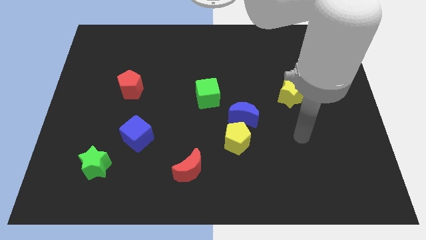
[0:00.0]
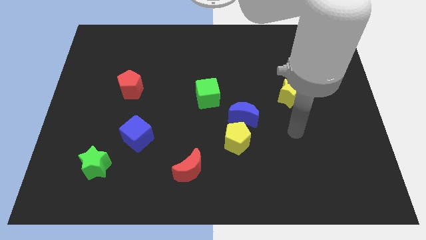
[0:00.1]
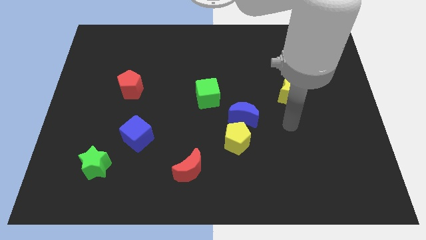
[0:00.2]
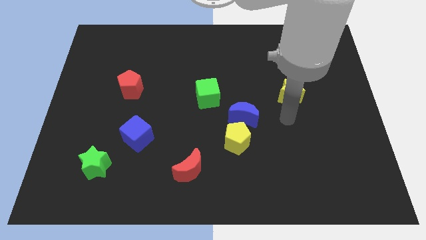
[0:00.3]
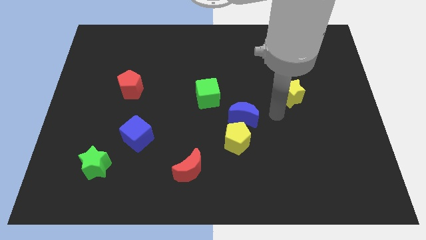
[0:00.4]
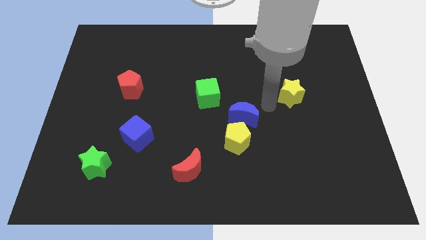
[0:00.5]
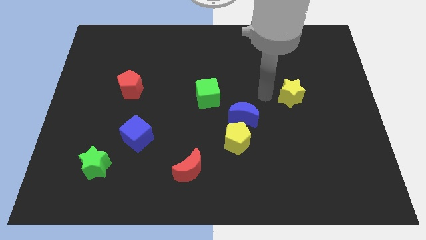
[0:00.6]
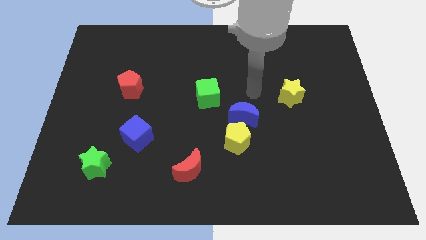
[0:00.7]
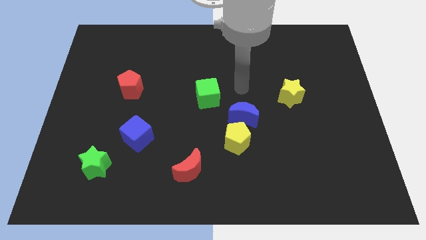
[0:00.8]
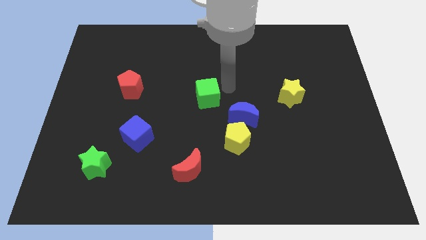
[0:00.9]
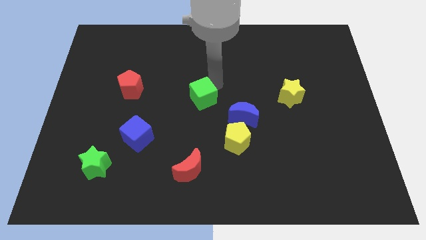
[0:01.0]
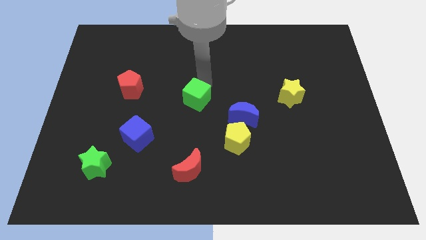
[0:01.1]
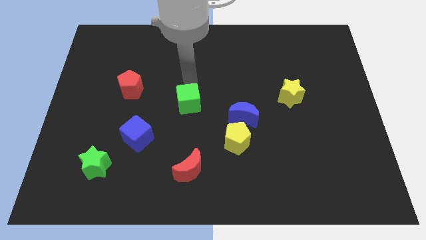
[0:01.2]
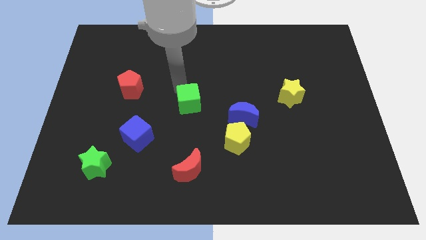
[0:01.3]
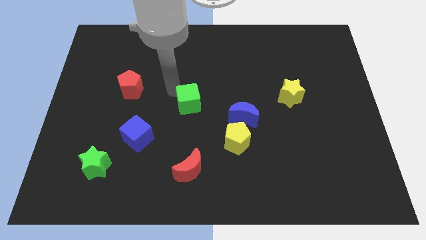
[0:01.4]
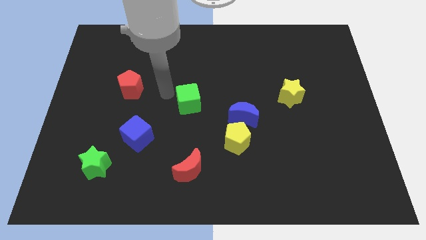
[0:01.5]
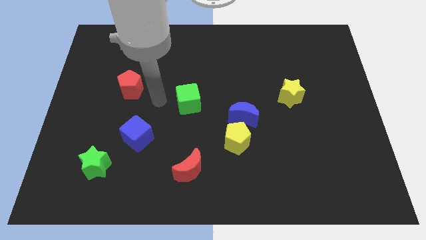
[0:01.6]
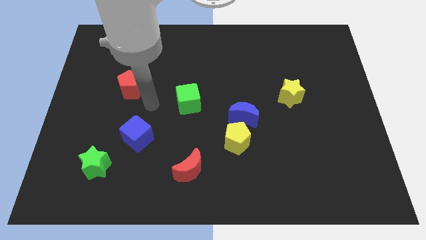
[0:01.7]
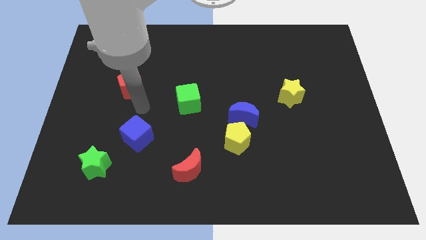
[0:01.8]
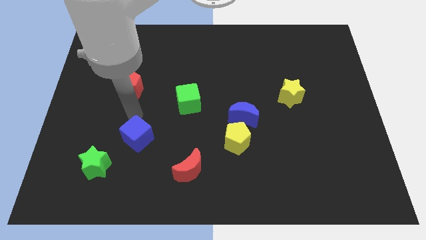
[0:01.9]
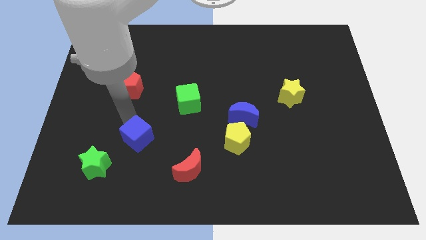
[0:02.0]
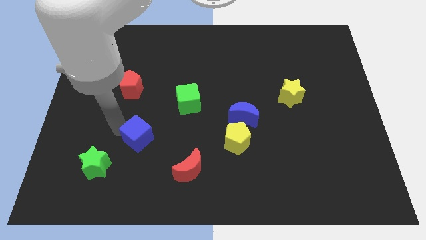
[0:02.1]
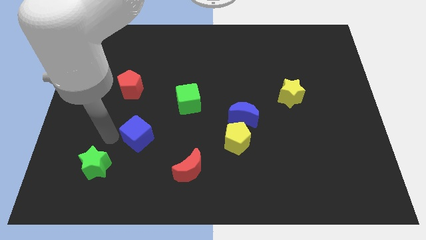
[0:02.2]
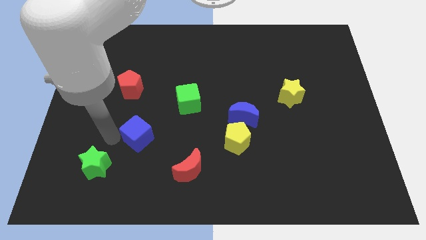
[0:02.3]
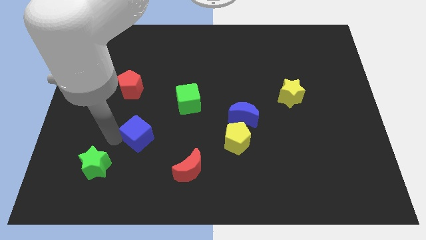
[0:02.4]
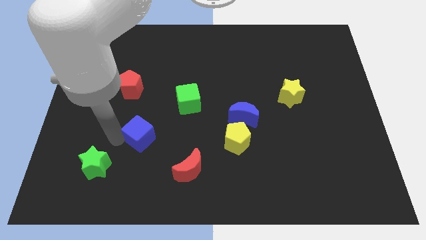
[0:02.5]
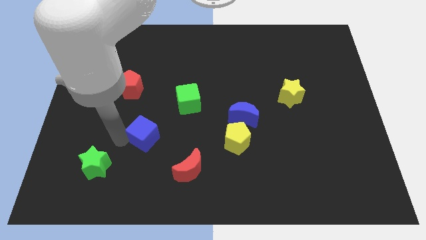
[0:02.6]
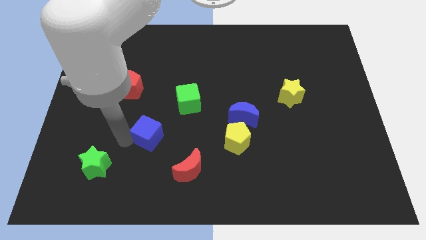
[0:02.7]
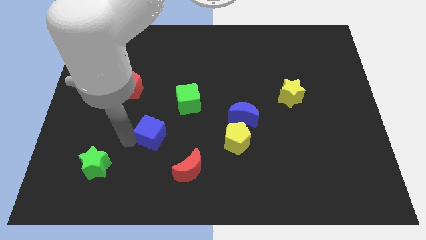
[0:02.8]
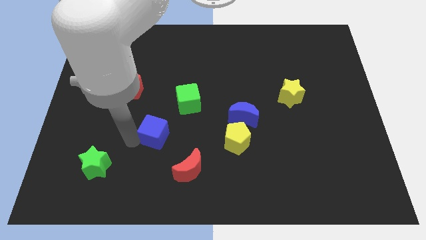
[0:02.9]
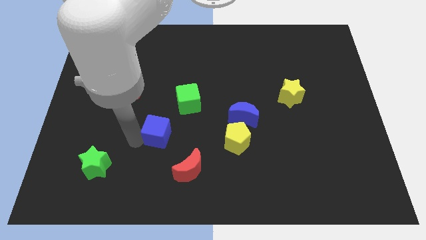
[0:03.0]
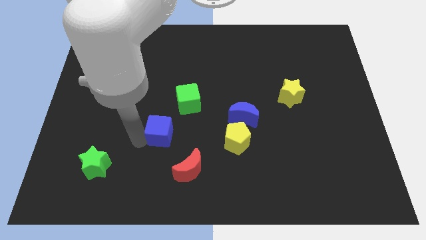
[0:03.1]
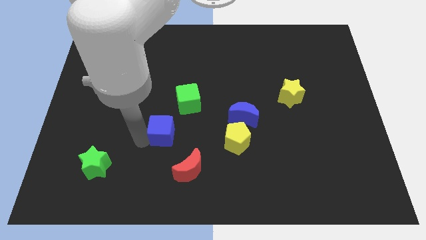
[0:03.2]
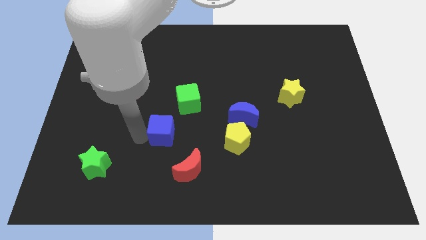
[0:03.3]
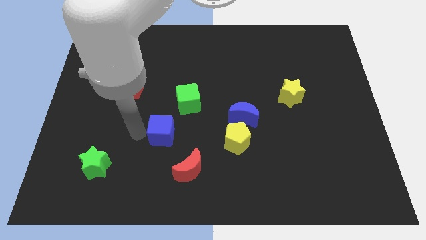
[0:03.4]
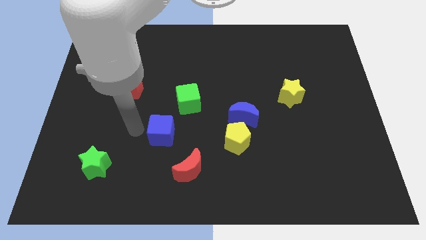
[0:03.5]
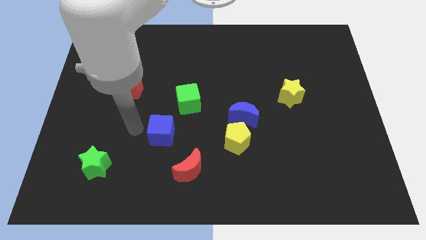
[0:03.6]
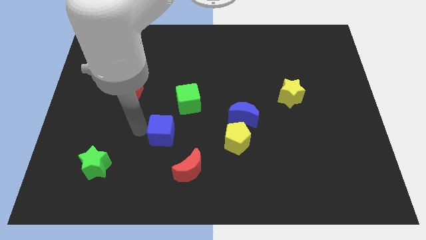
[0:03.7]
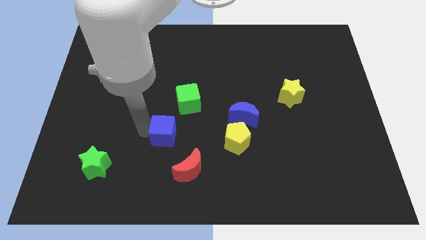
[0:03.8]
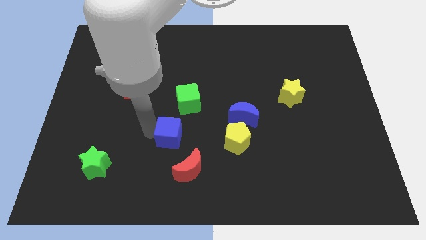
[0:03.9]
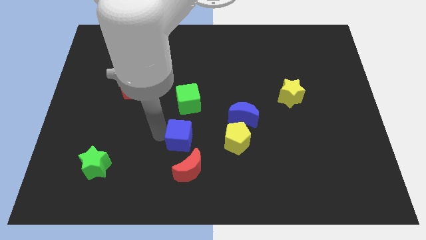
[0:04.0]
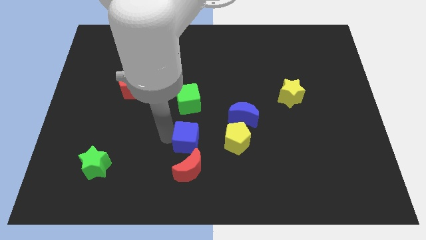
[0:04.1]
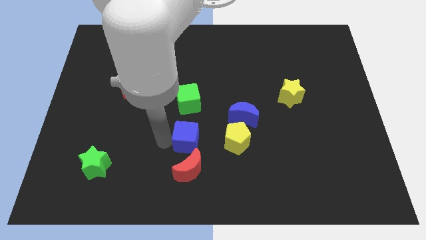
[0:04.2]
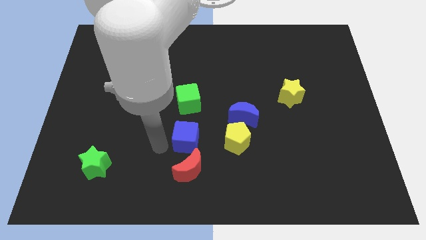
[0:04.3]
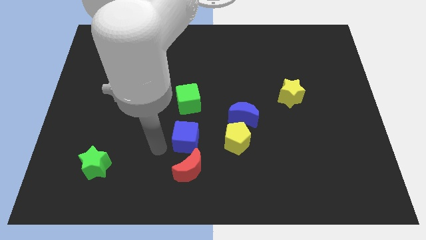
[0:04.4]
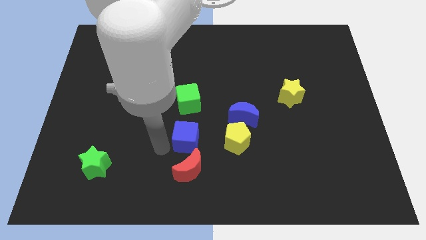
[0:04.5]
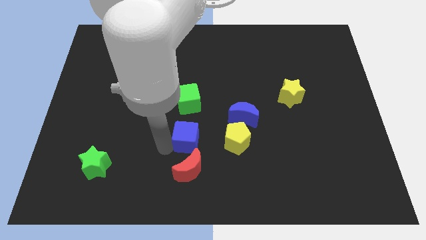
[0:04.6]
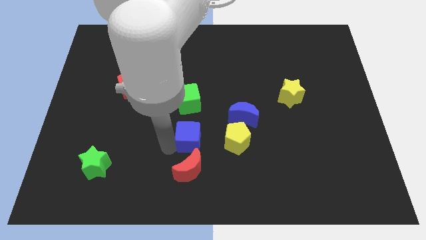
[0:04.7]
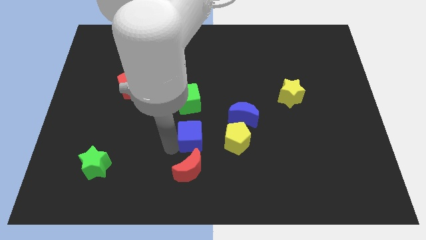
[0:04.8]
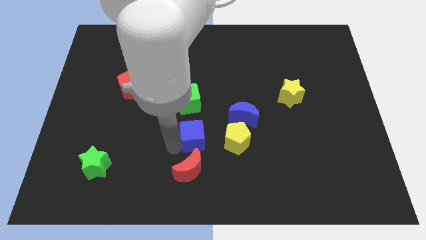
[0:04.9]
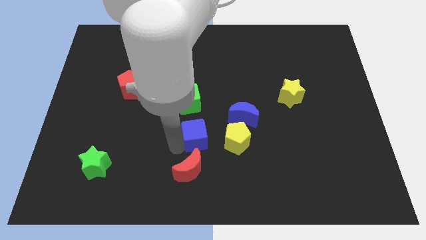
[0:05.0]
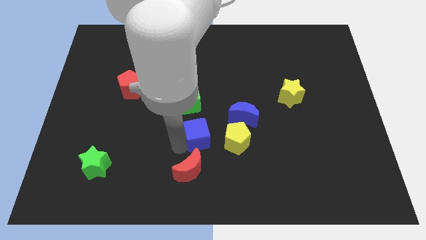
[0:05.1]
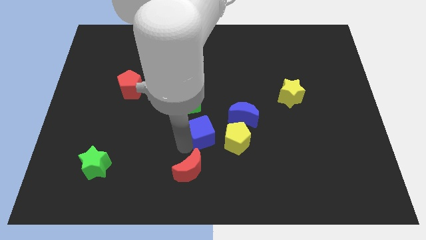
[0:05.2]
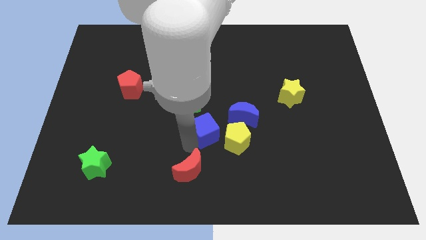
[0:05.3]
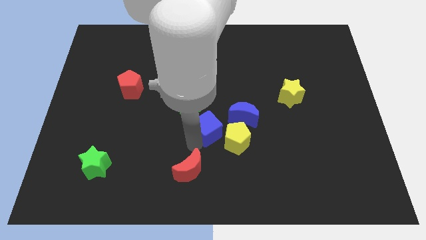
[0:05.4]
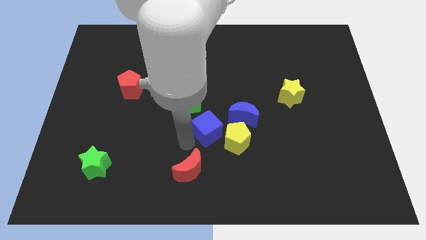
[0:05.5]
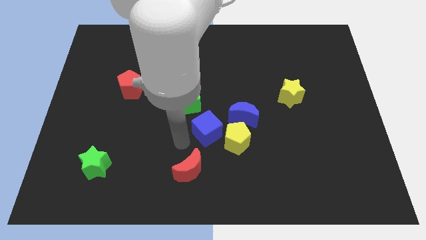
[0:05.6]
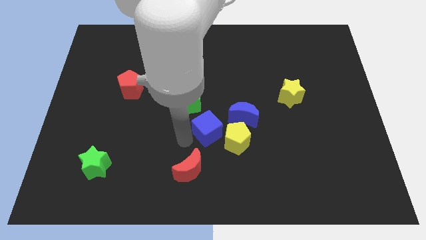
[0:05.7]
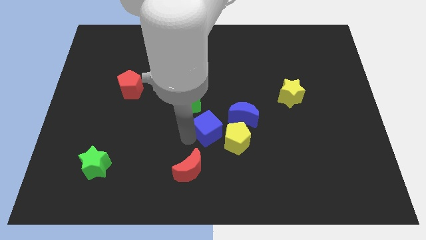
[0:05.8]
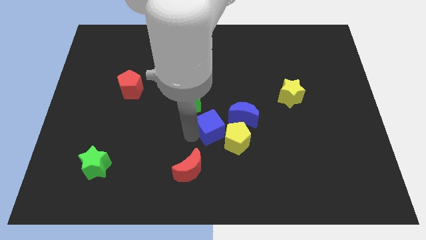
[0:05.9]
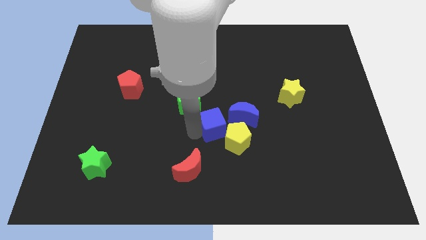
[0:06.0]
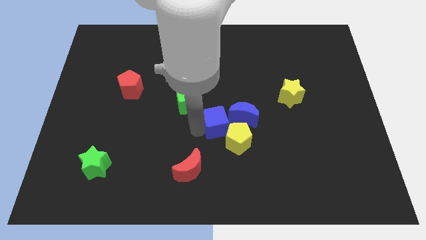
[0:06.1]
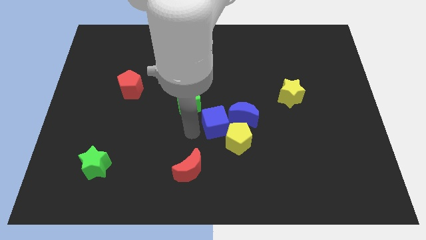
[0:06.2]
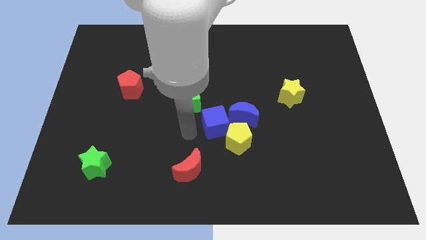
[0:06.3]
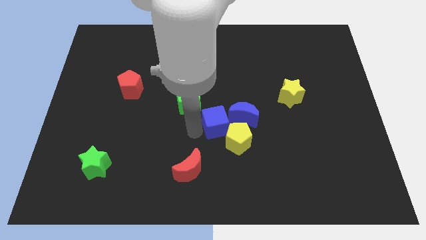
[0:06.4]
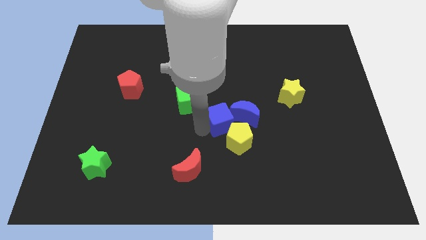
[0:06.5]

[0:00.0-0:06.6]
move the blue cube close to the blue moon

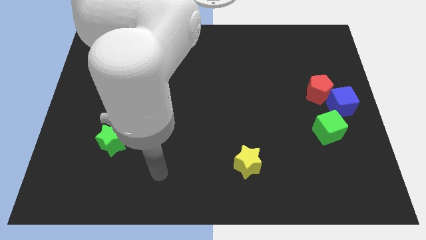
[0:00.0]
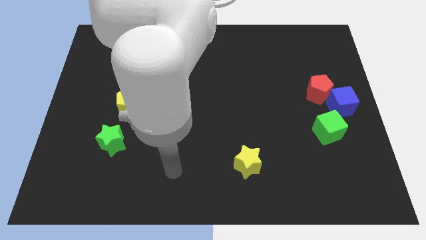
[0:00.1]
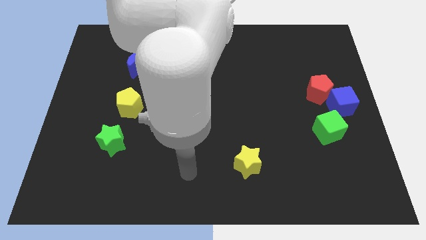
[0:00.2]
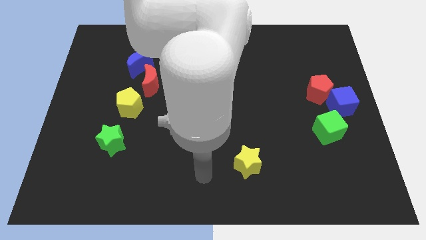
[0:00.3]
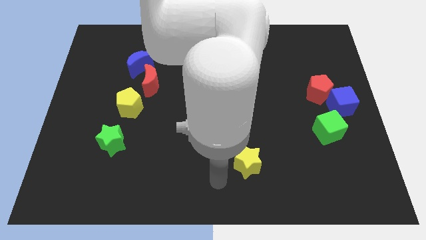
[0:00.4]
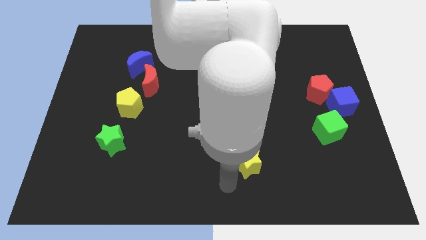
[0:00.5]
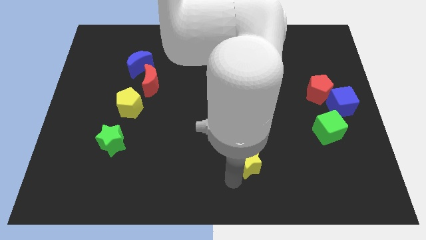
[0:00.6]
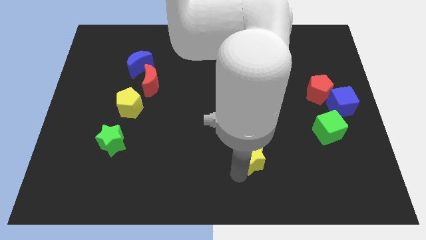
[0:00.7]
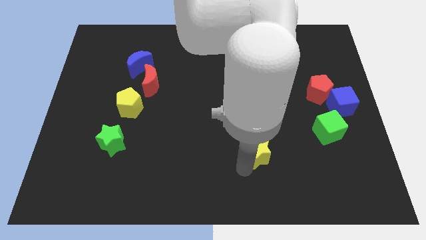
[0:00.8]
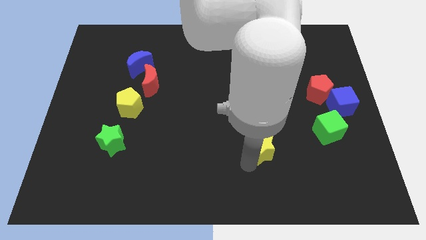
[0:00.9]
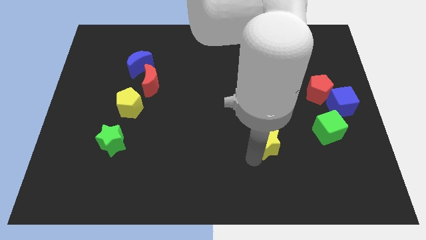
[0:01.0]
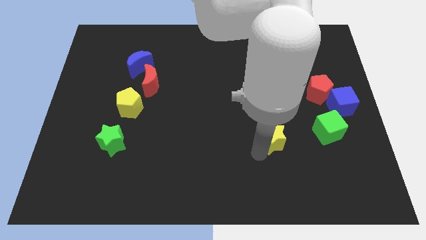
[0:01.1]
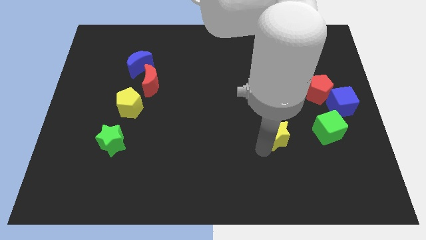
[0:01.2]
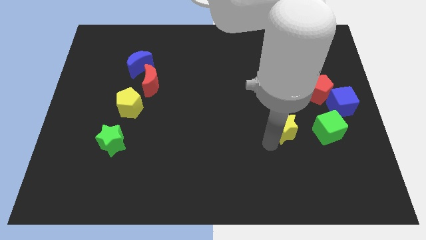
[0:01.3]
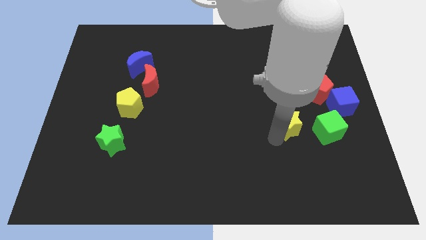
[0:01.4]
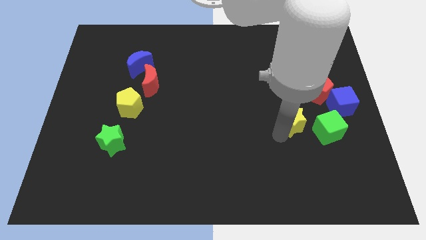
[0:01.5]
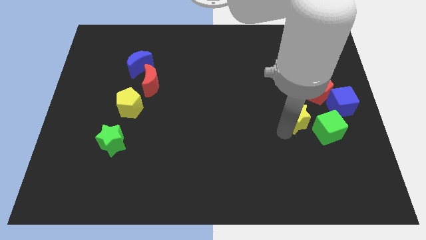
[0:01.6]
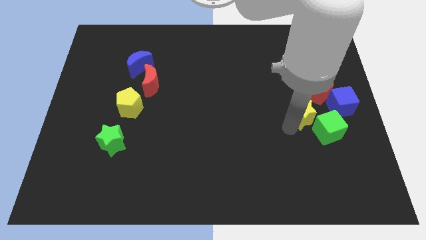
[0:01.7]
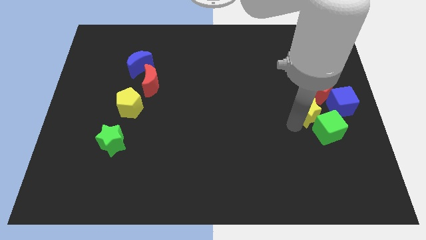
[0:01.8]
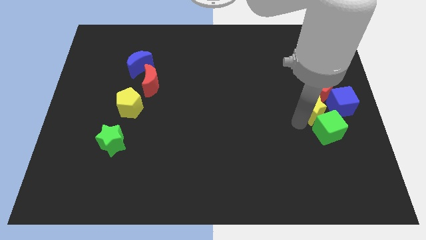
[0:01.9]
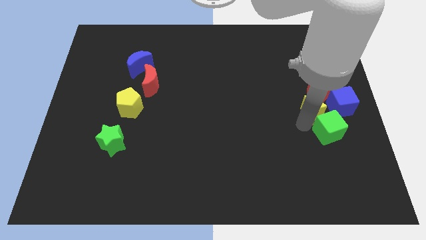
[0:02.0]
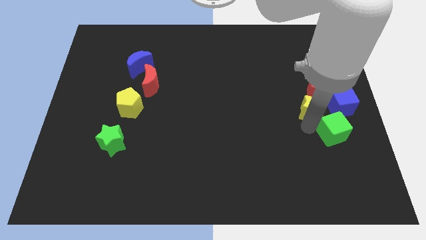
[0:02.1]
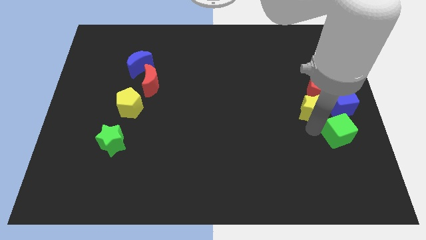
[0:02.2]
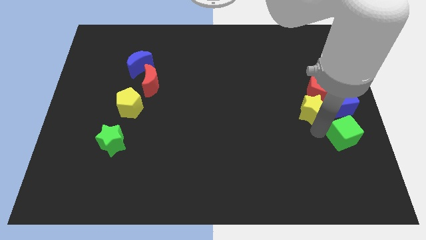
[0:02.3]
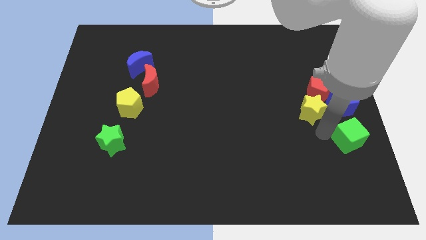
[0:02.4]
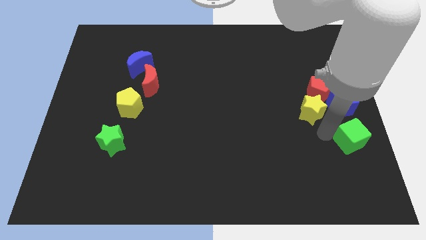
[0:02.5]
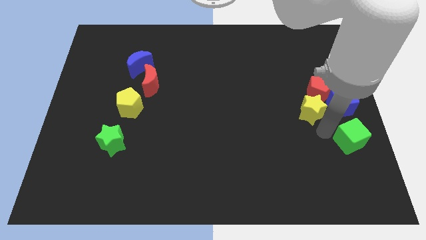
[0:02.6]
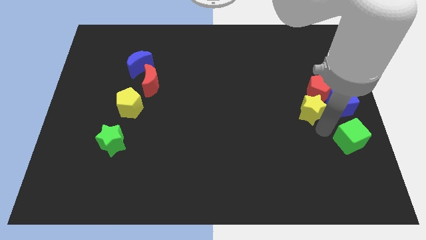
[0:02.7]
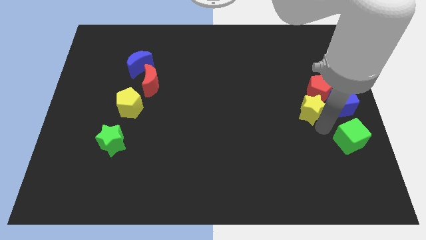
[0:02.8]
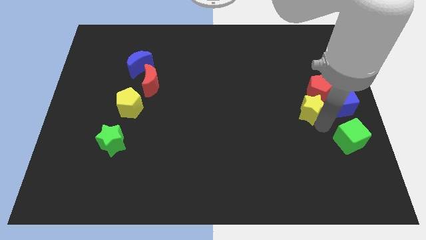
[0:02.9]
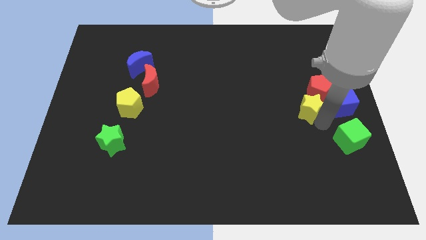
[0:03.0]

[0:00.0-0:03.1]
put the yellow star next to the red pentagon
